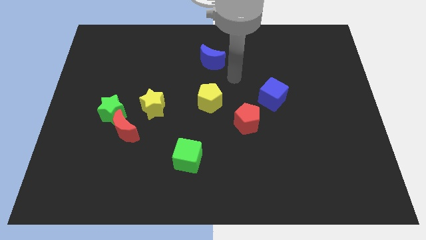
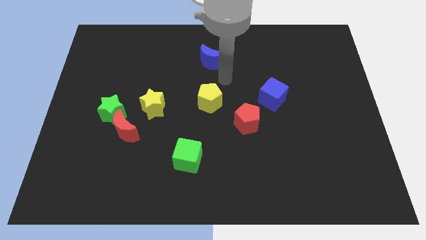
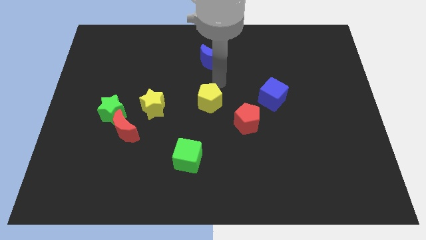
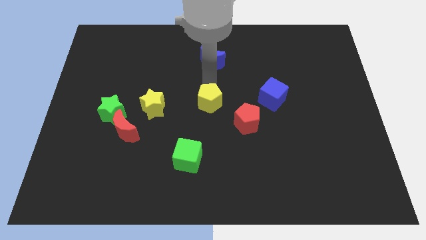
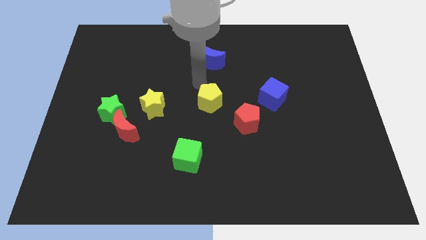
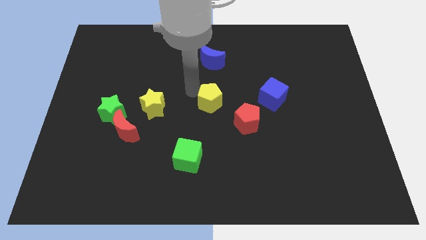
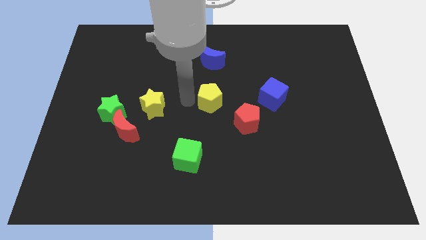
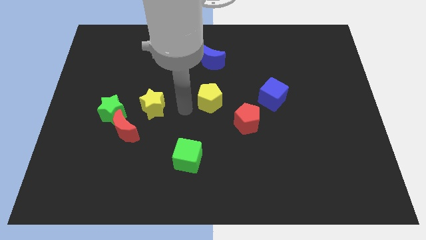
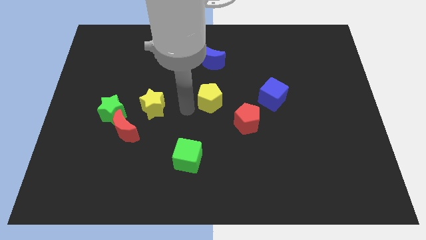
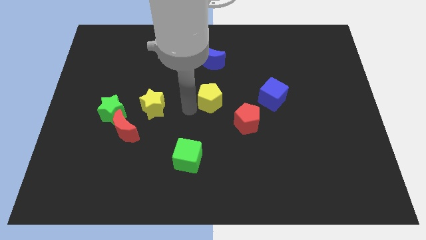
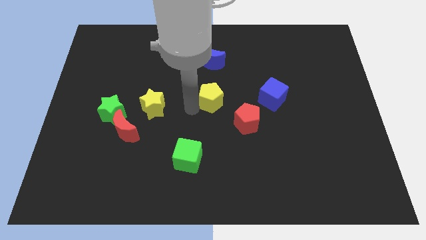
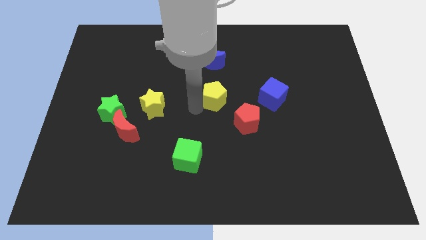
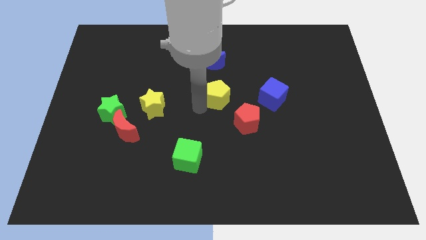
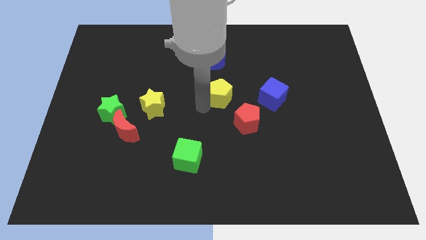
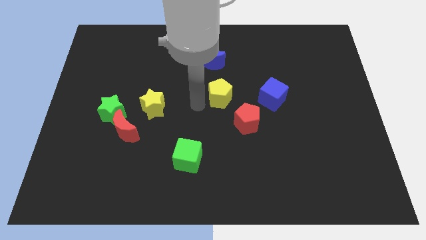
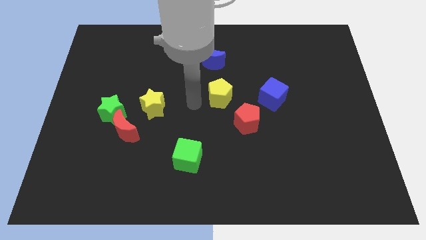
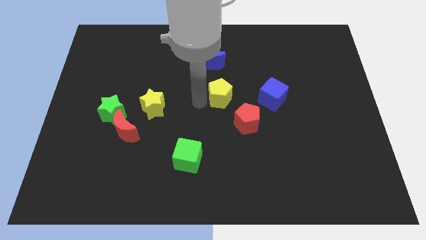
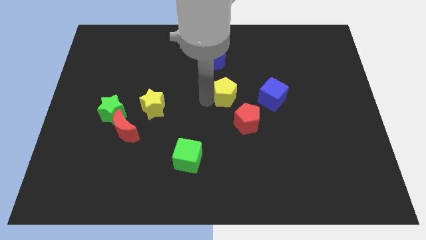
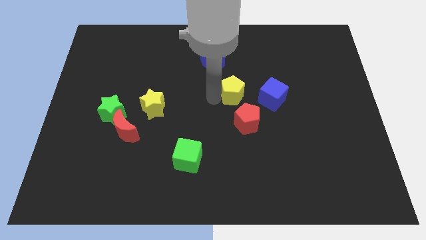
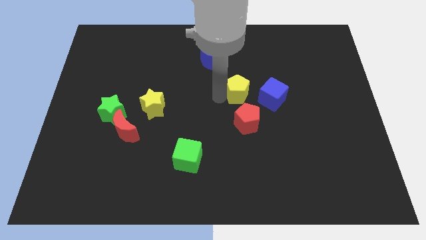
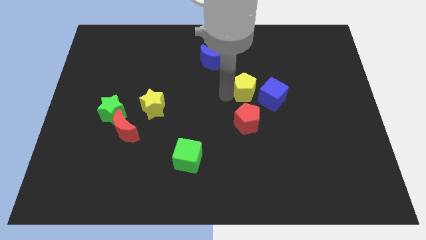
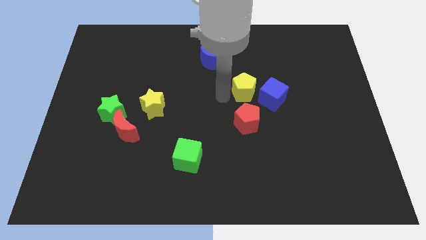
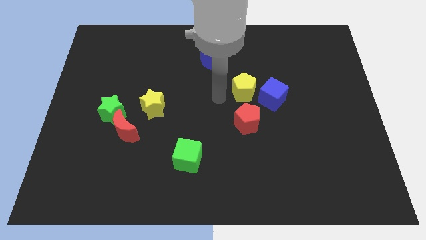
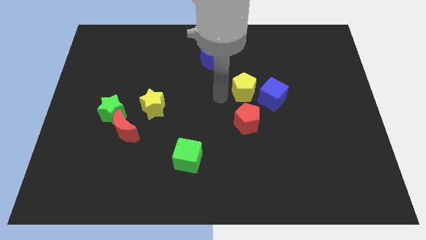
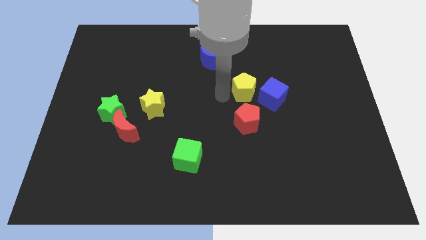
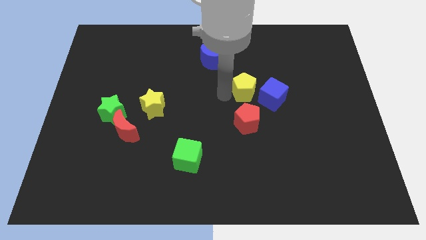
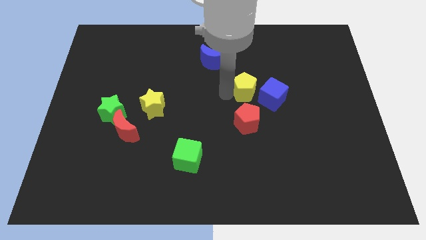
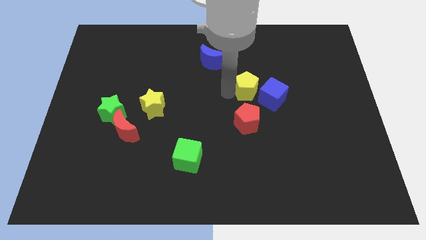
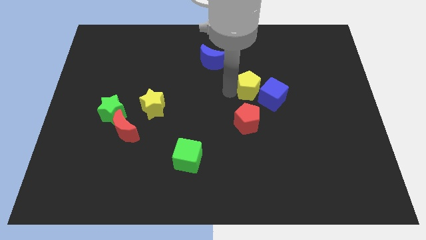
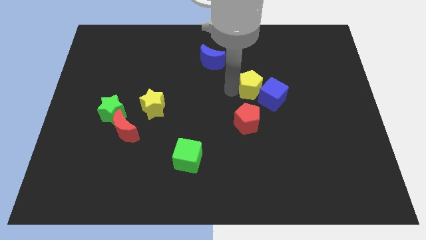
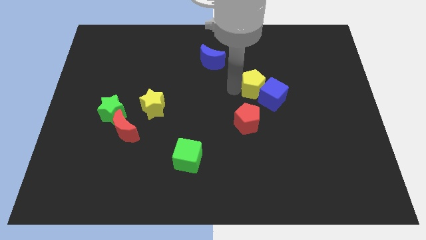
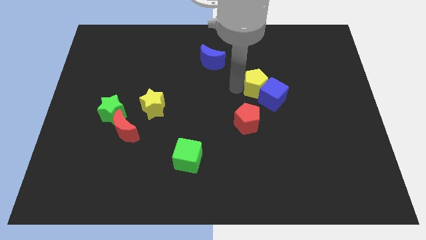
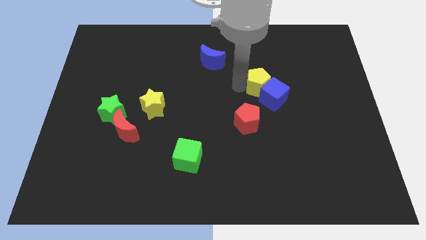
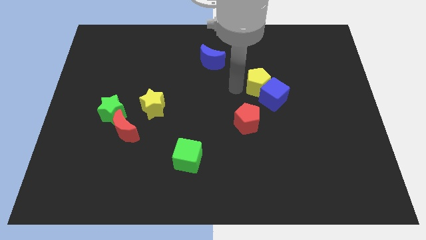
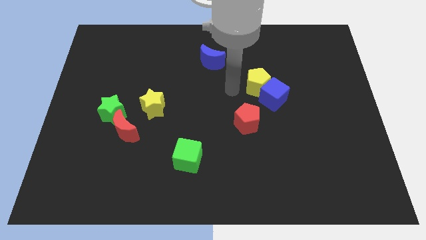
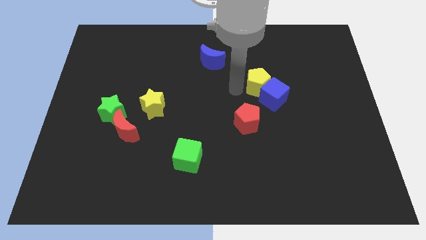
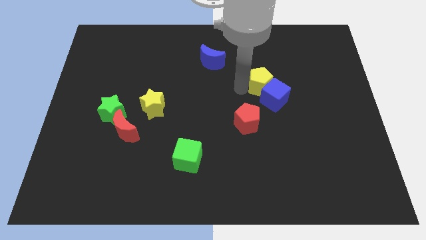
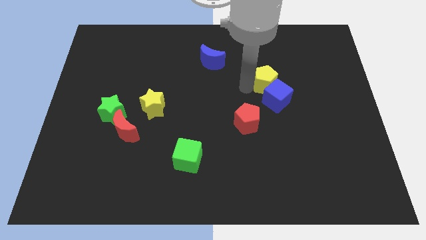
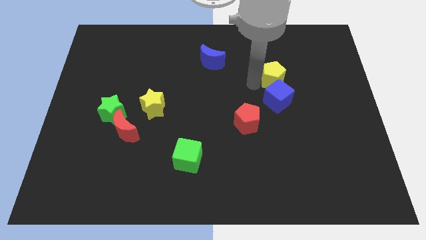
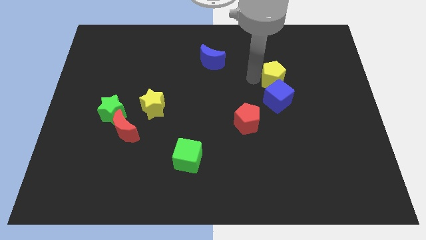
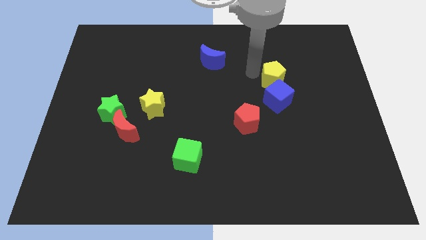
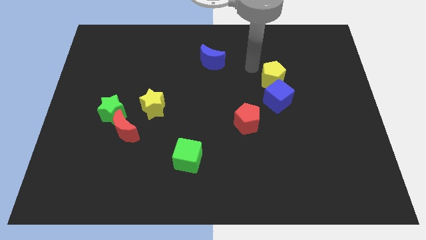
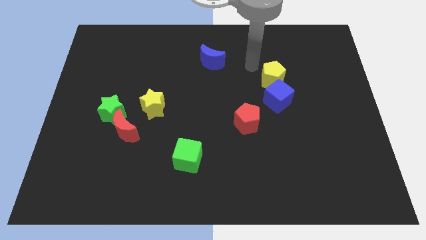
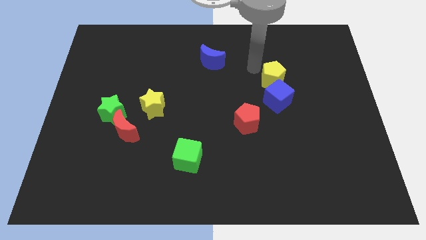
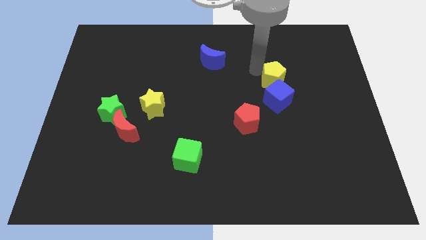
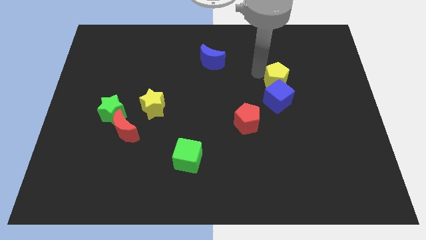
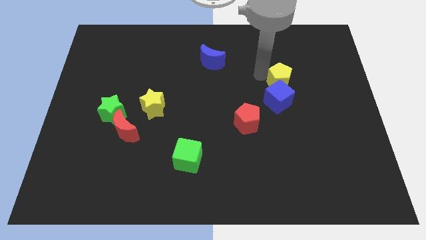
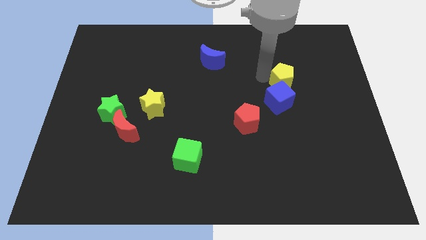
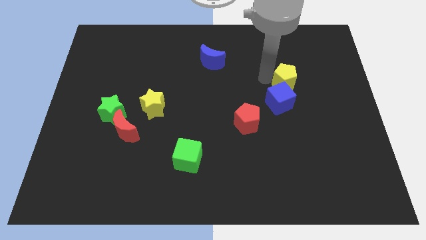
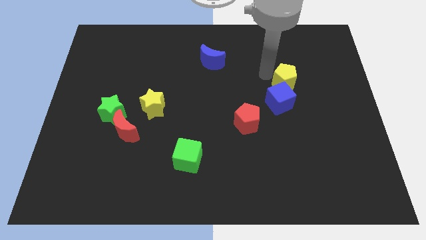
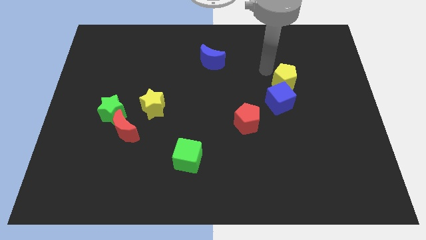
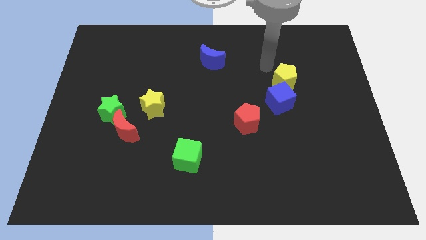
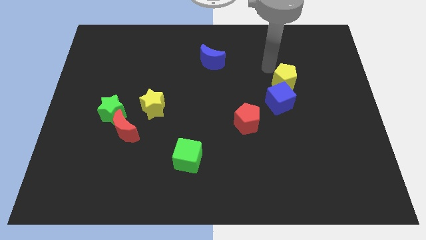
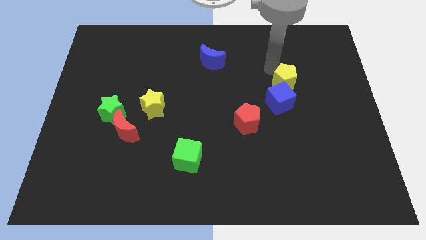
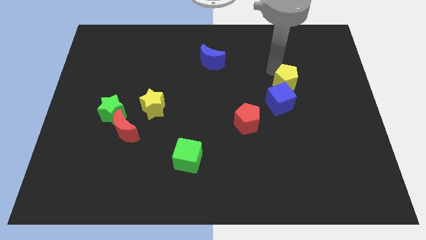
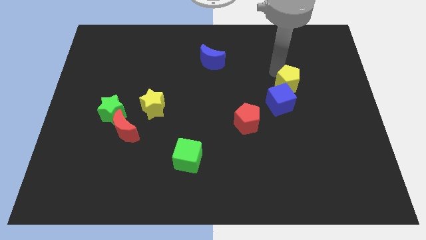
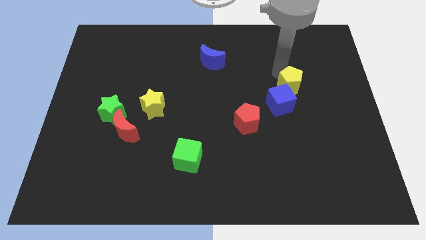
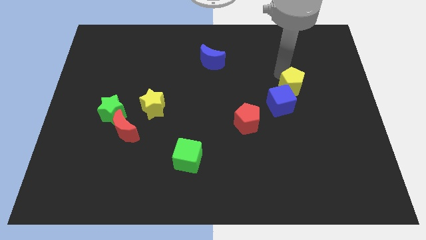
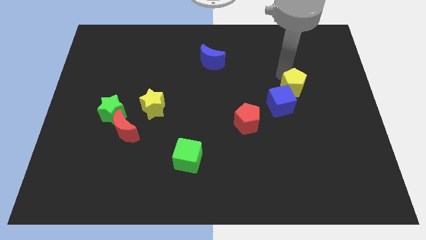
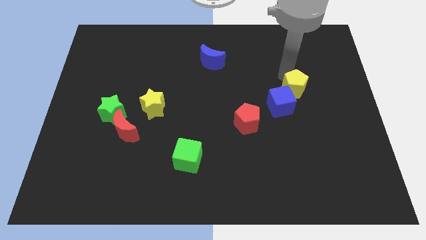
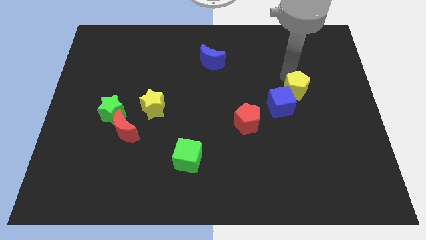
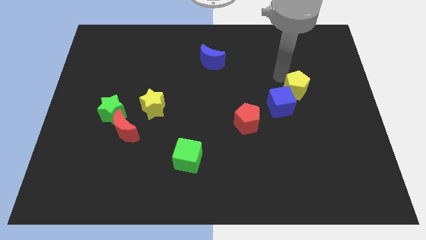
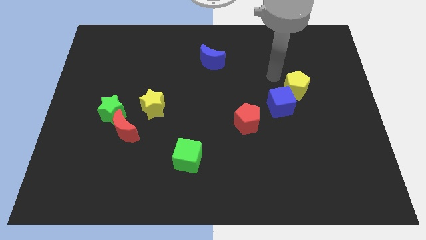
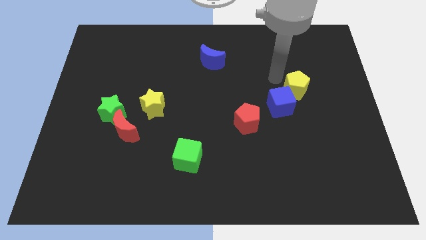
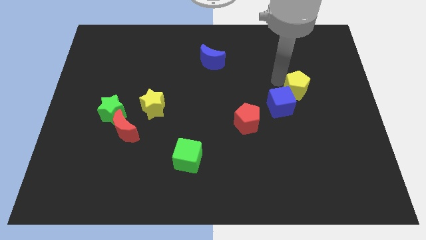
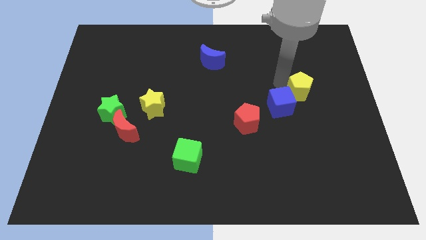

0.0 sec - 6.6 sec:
put the yellow pentagon just right of the blue cube

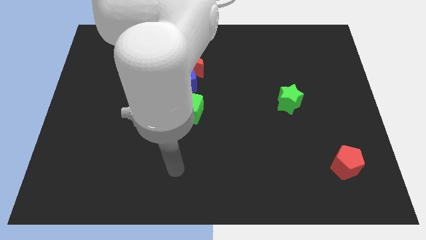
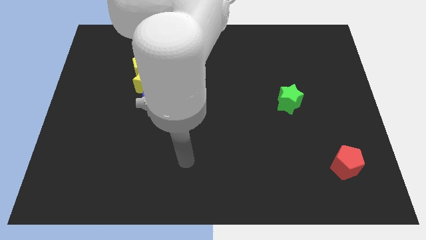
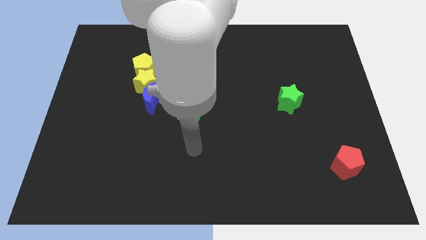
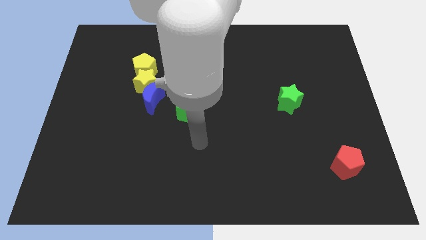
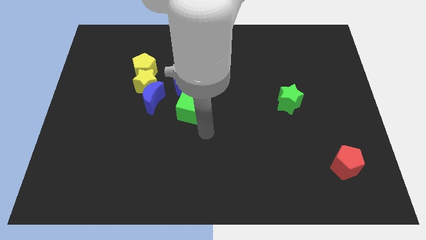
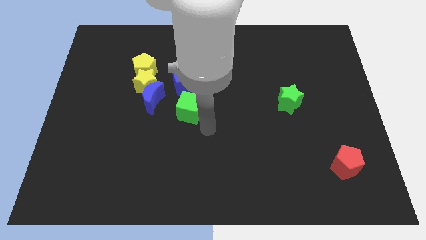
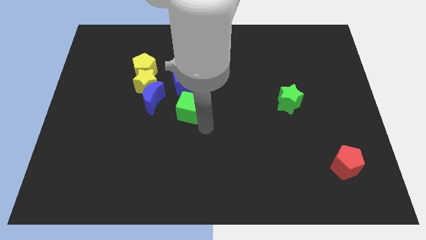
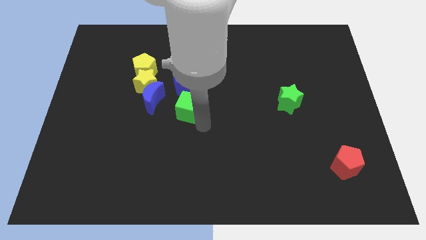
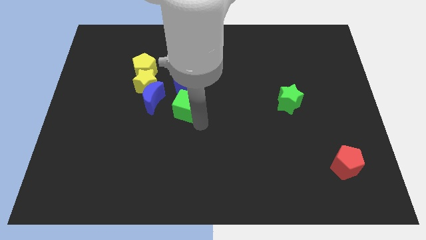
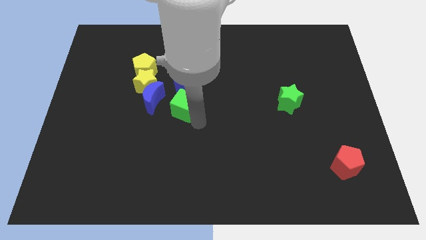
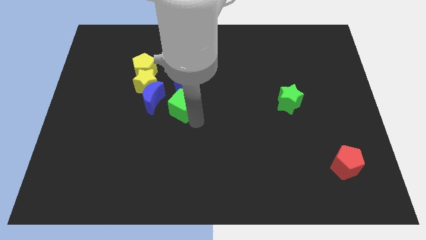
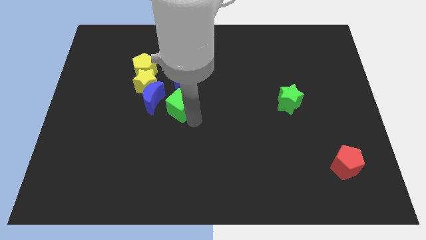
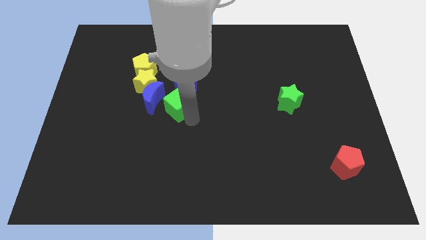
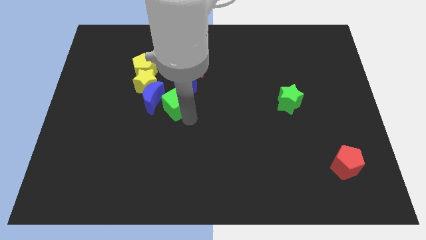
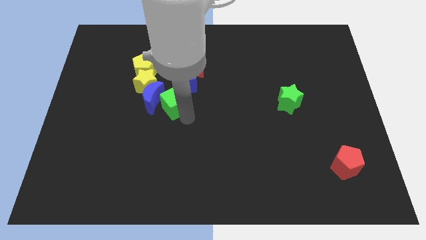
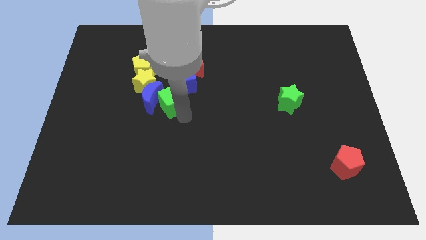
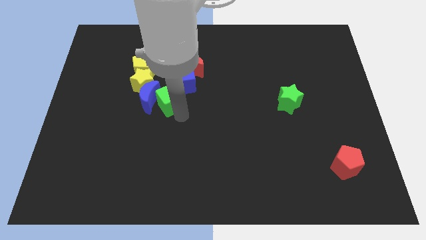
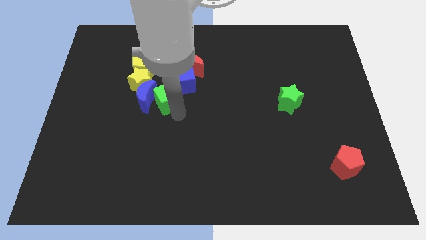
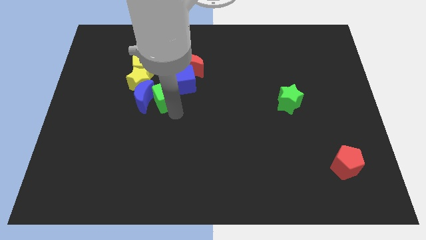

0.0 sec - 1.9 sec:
push the green cube to the bottom right side of the yellow pentagon
